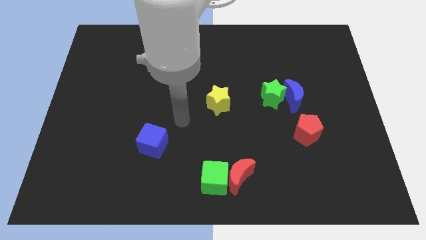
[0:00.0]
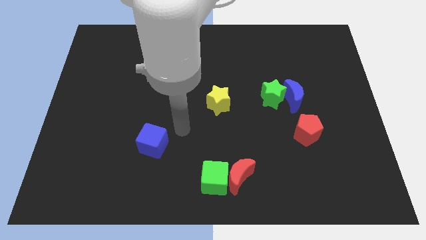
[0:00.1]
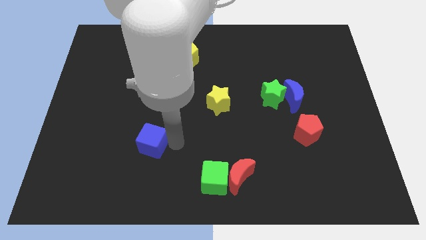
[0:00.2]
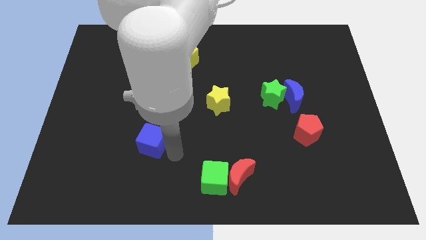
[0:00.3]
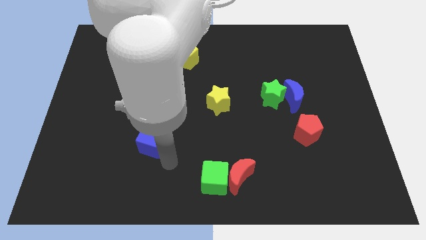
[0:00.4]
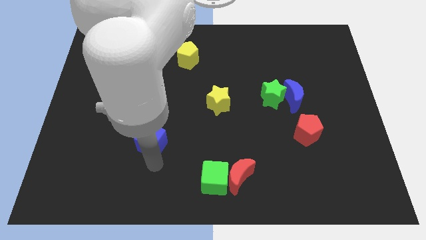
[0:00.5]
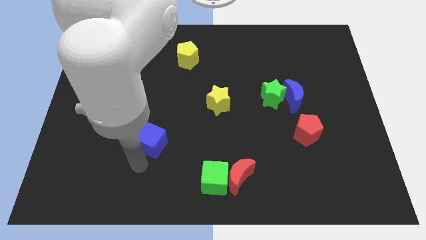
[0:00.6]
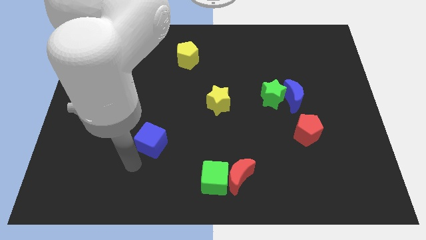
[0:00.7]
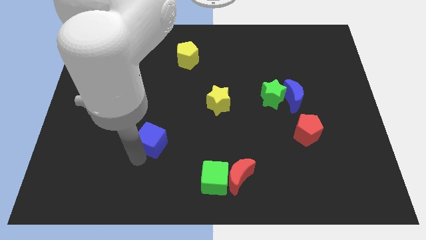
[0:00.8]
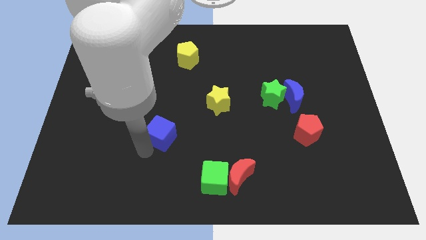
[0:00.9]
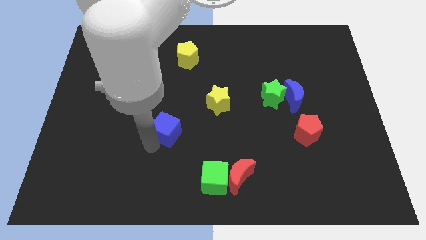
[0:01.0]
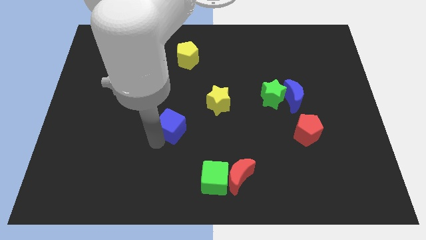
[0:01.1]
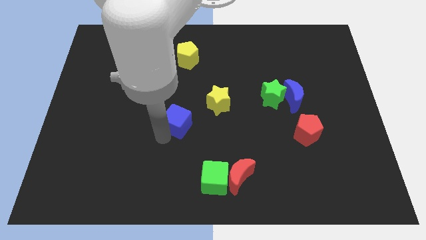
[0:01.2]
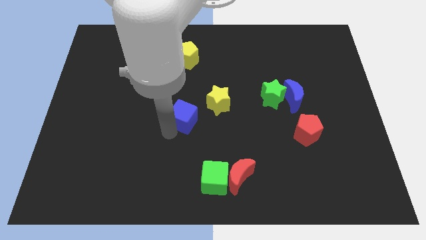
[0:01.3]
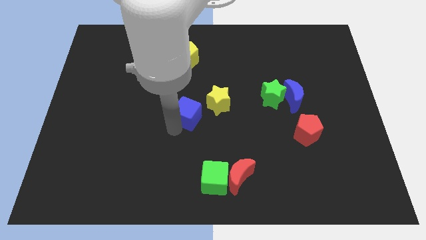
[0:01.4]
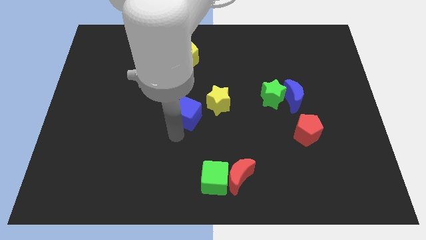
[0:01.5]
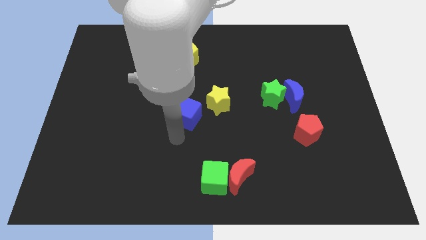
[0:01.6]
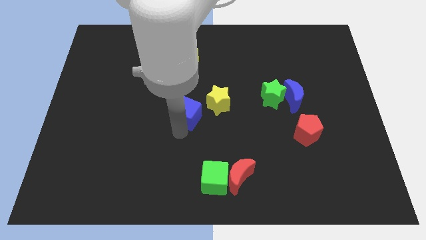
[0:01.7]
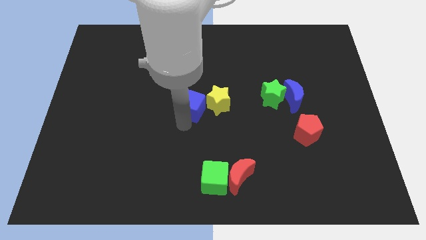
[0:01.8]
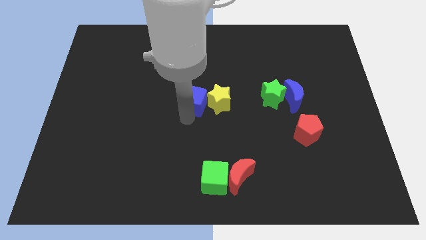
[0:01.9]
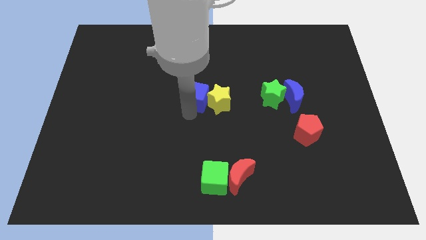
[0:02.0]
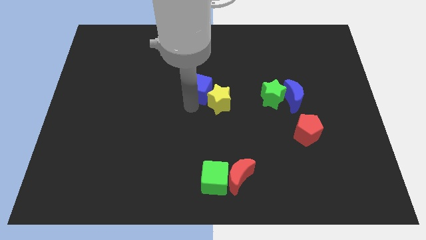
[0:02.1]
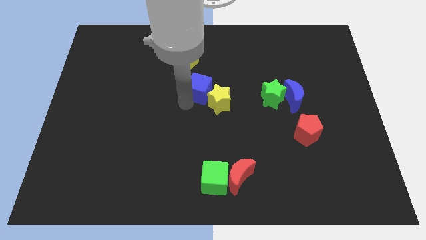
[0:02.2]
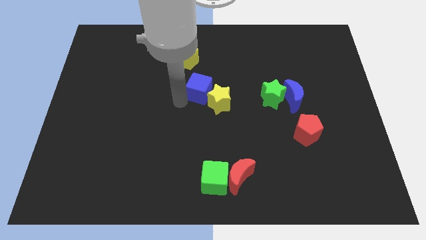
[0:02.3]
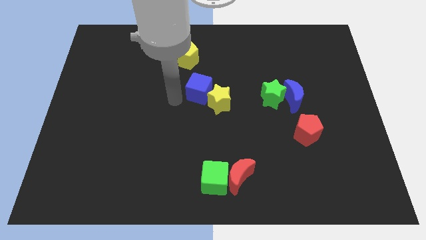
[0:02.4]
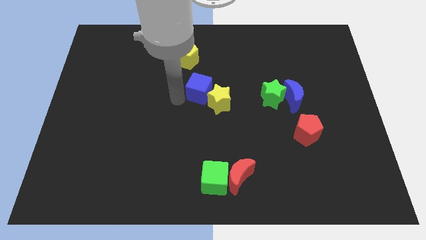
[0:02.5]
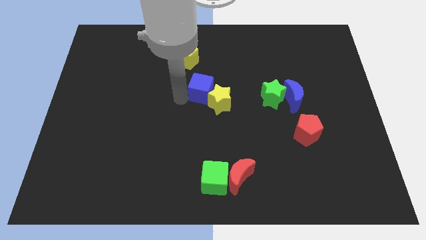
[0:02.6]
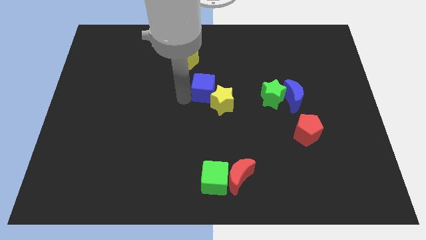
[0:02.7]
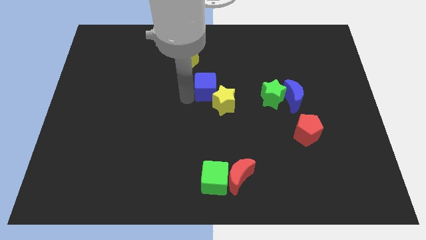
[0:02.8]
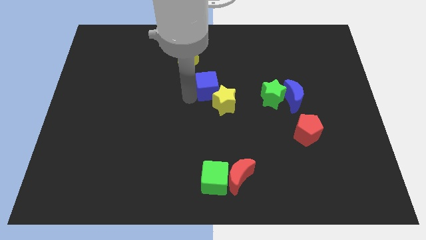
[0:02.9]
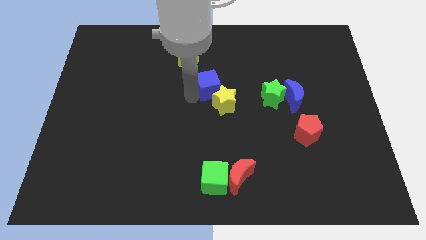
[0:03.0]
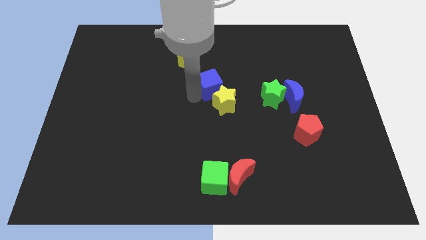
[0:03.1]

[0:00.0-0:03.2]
slide the blue cube up and to the right diagonally

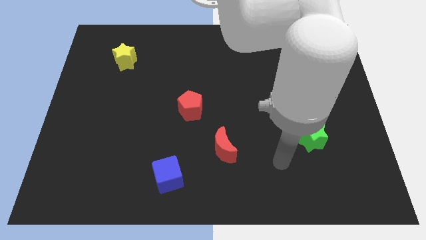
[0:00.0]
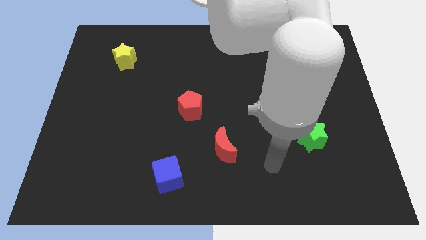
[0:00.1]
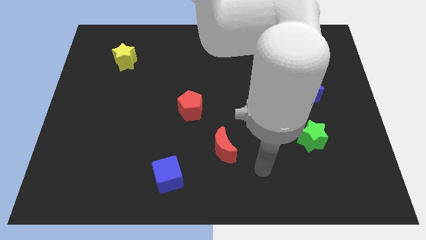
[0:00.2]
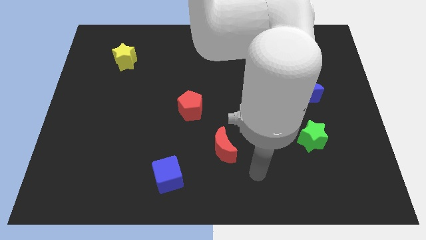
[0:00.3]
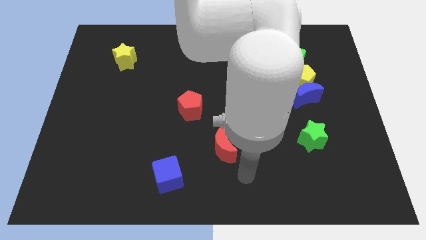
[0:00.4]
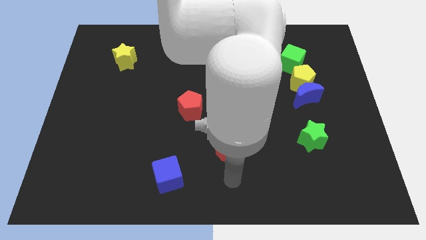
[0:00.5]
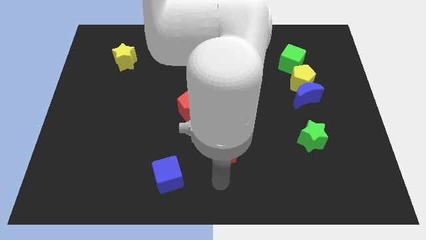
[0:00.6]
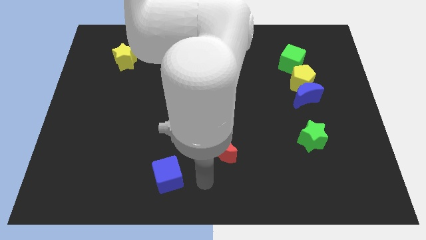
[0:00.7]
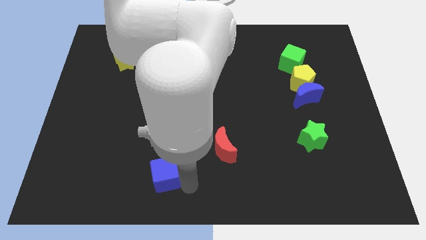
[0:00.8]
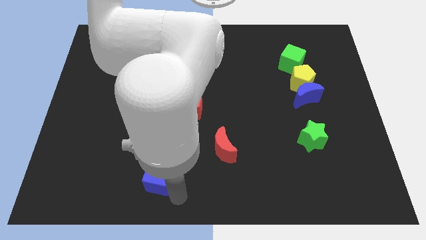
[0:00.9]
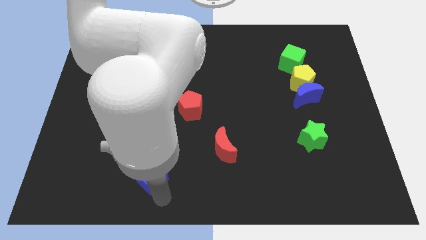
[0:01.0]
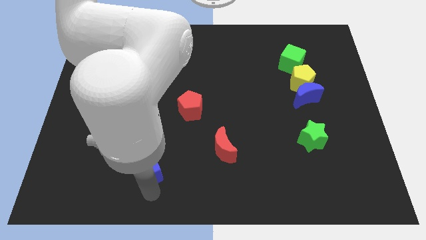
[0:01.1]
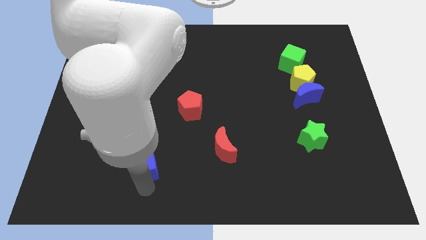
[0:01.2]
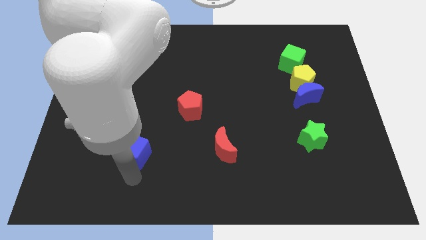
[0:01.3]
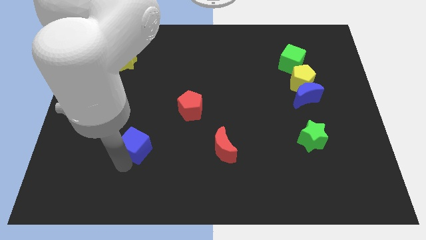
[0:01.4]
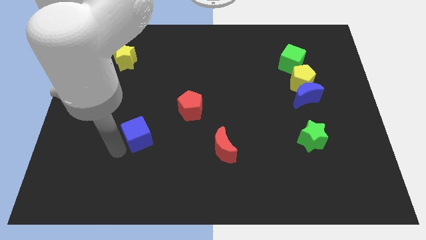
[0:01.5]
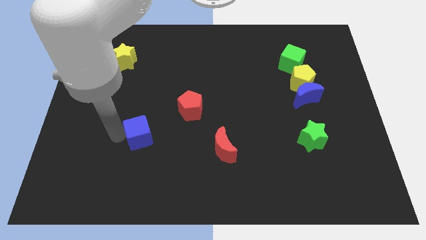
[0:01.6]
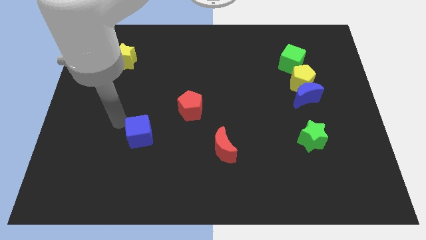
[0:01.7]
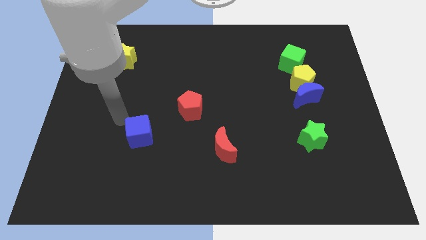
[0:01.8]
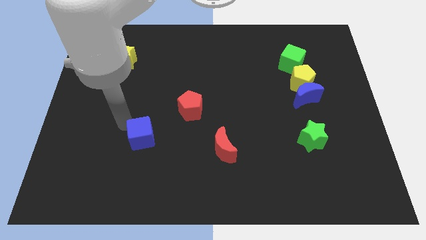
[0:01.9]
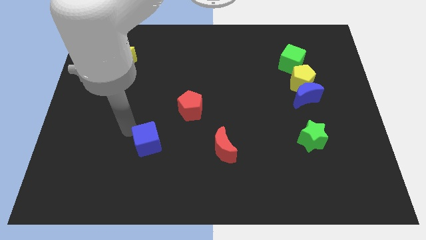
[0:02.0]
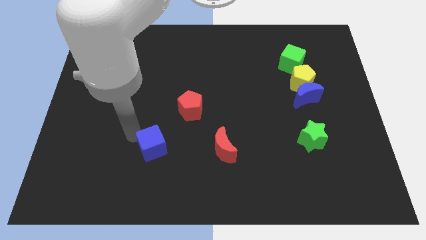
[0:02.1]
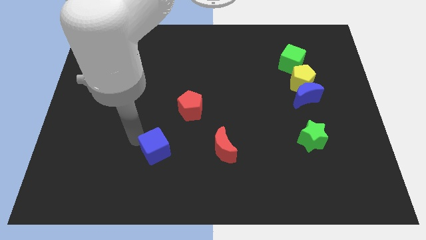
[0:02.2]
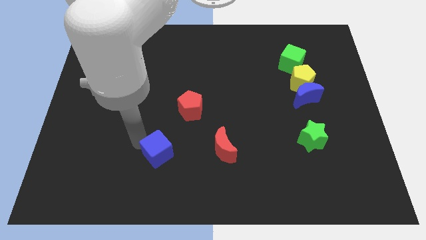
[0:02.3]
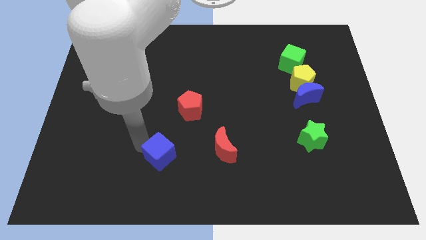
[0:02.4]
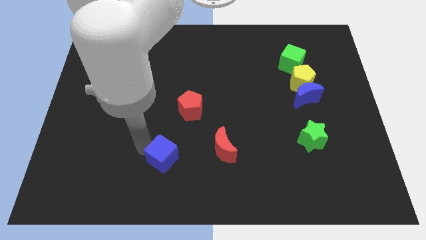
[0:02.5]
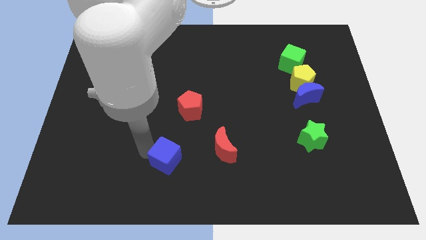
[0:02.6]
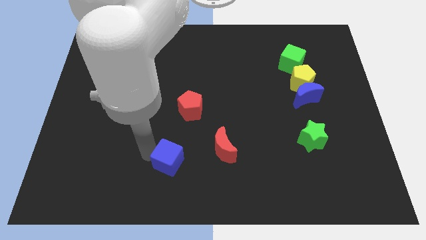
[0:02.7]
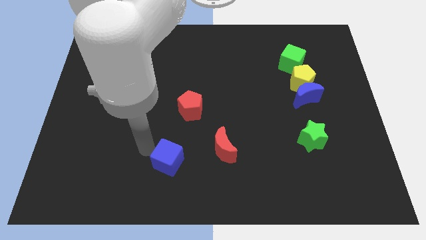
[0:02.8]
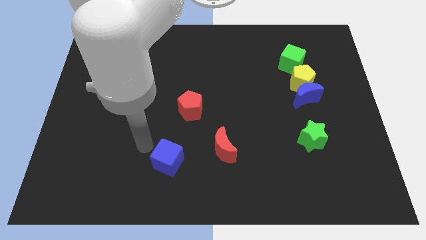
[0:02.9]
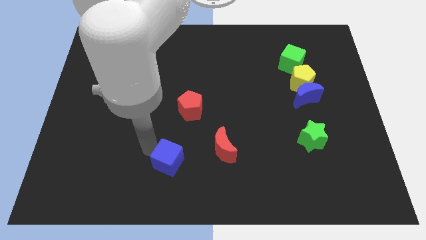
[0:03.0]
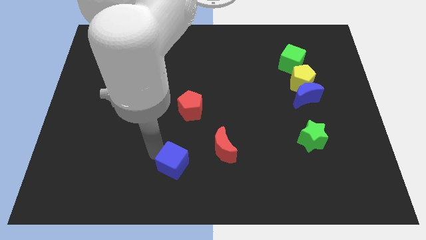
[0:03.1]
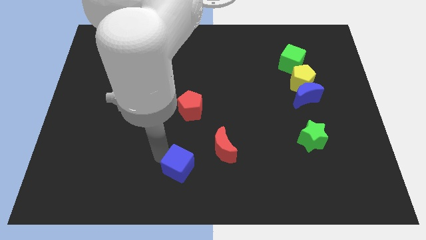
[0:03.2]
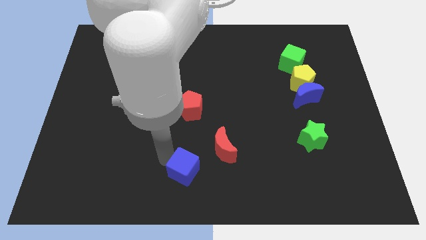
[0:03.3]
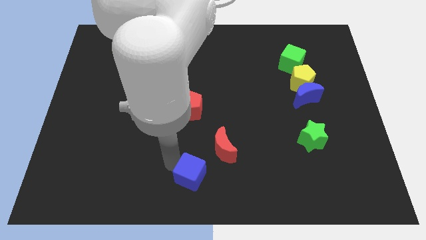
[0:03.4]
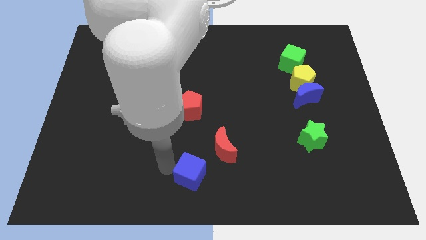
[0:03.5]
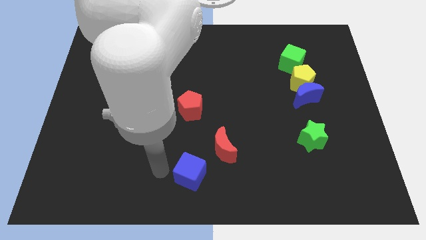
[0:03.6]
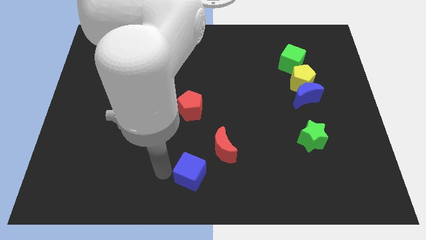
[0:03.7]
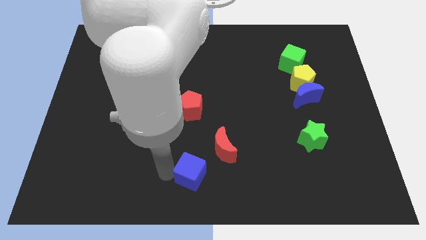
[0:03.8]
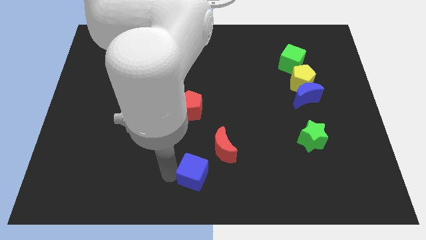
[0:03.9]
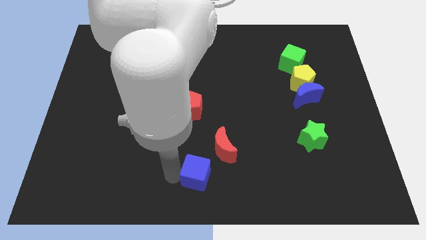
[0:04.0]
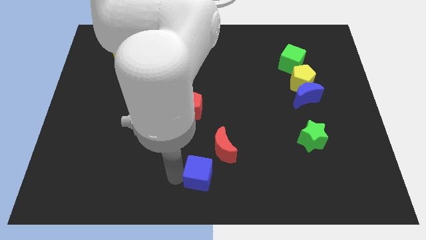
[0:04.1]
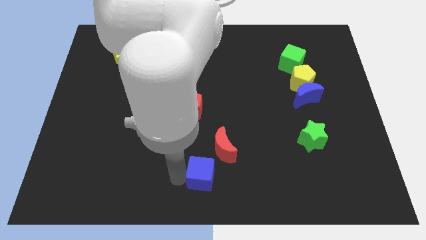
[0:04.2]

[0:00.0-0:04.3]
move the blue cube a bit right

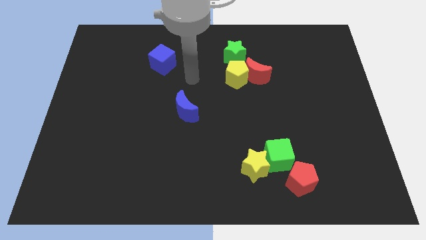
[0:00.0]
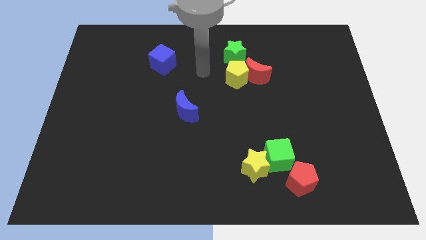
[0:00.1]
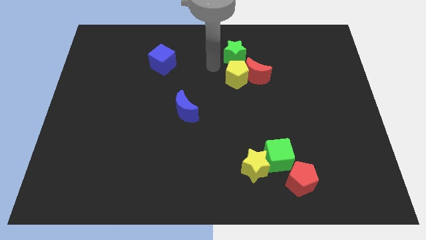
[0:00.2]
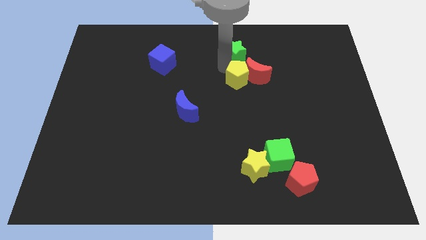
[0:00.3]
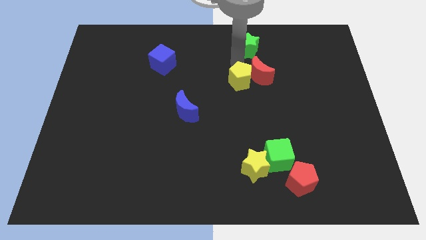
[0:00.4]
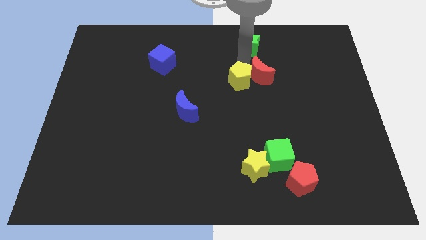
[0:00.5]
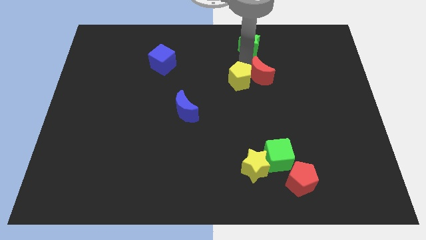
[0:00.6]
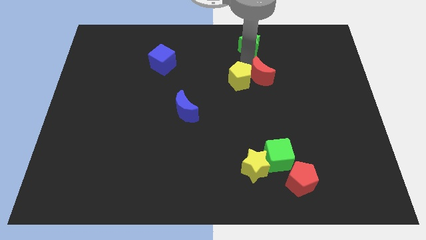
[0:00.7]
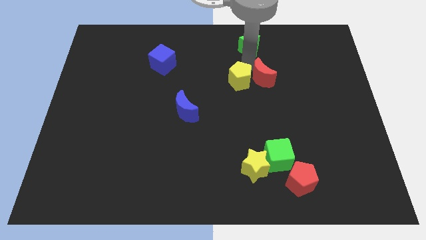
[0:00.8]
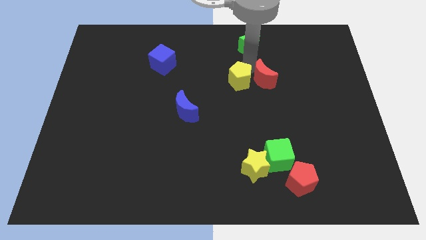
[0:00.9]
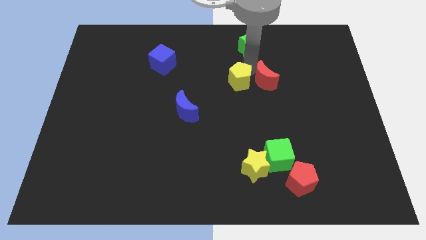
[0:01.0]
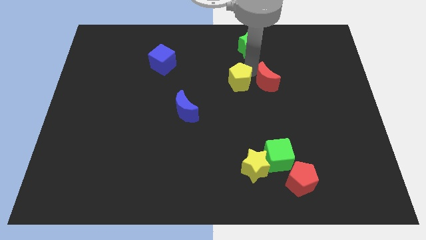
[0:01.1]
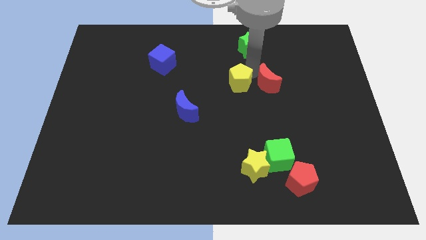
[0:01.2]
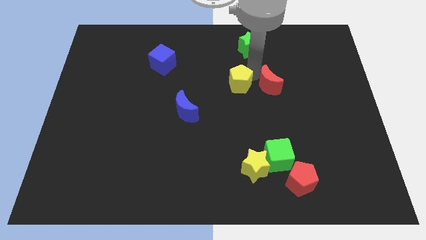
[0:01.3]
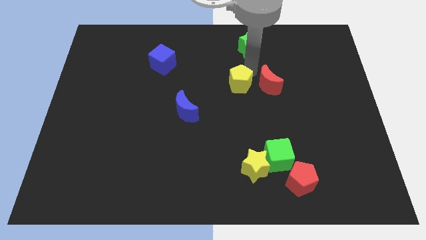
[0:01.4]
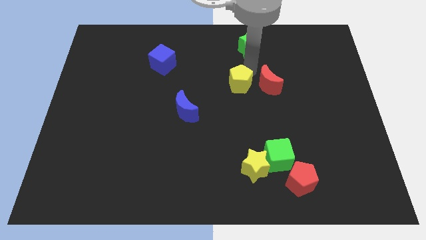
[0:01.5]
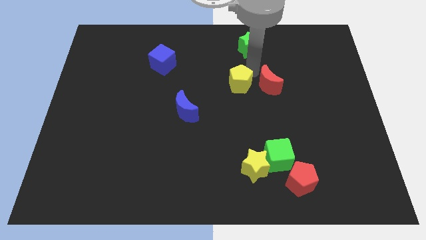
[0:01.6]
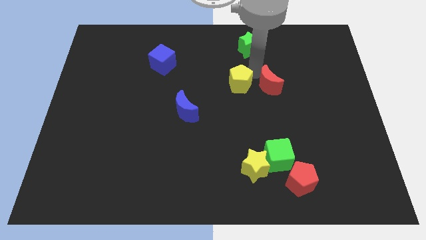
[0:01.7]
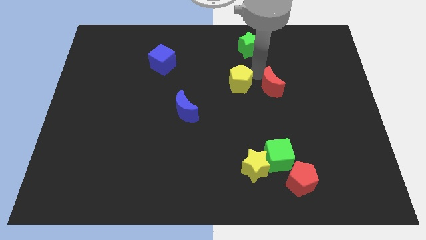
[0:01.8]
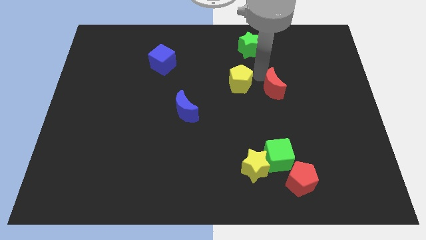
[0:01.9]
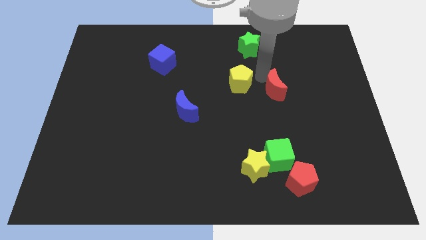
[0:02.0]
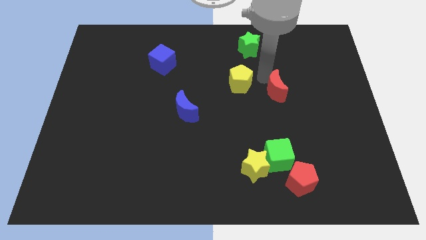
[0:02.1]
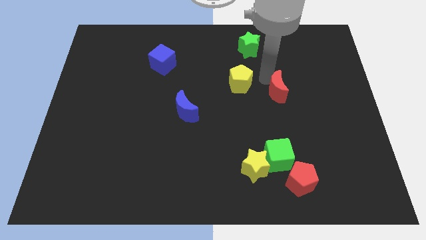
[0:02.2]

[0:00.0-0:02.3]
push the red moon downwards and to the right diagonally slightly
